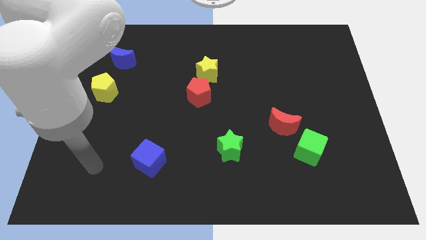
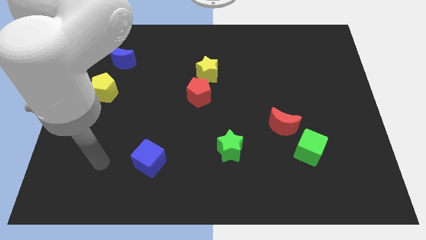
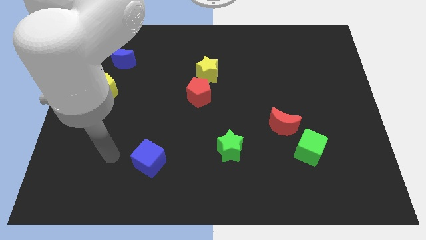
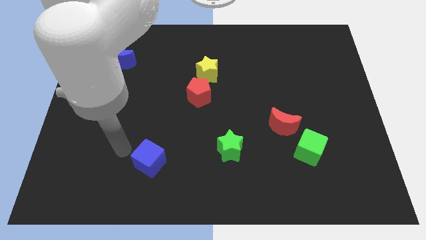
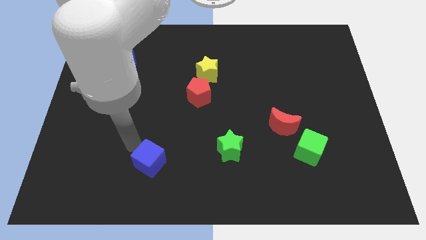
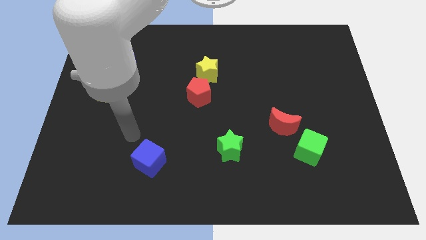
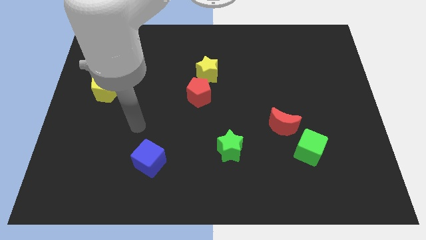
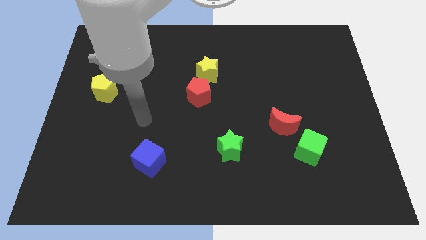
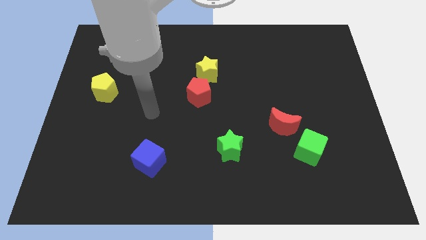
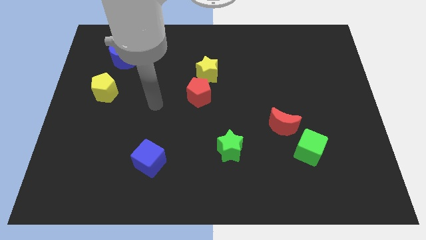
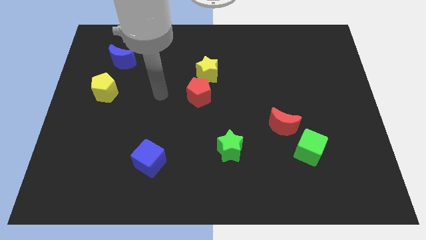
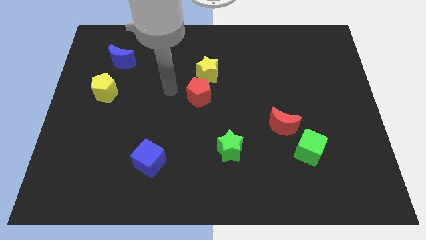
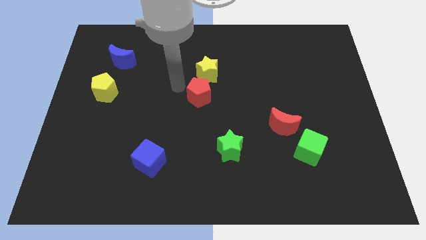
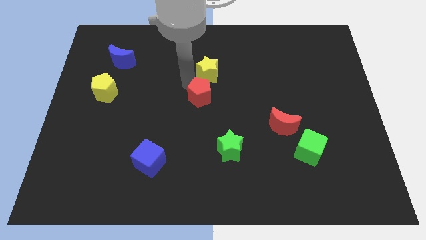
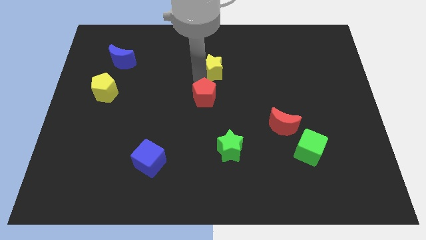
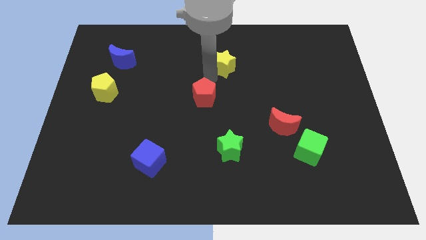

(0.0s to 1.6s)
separate the red pentagon from the yellow star

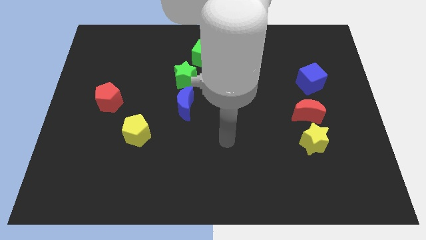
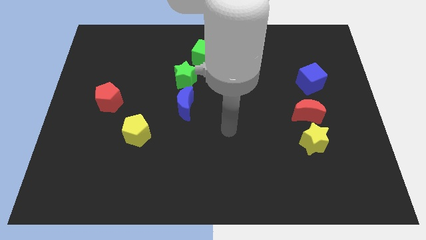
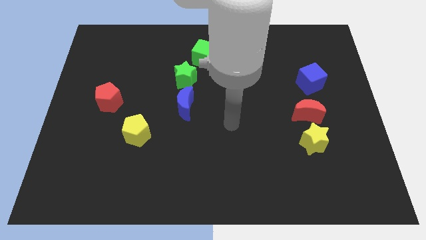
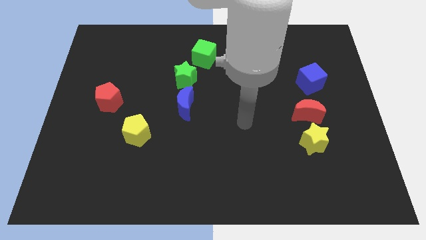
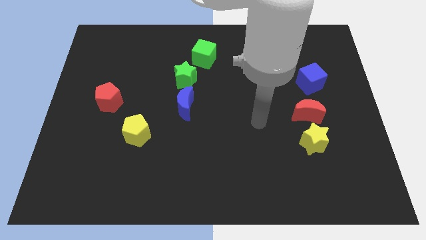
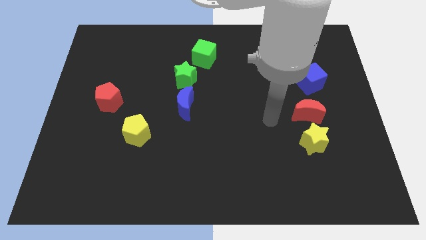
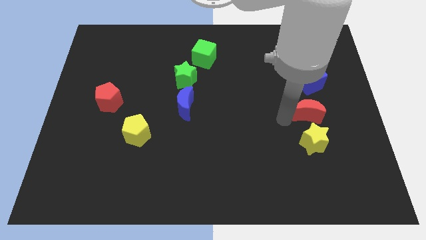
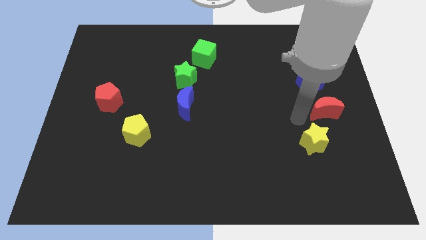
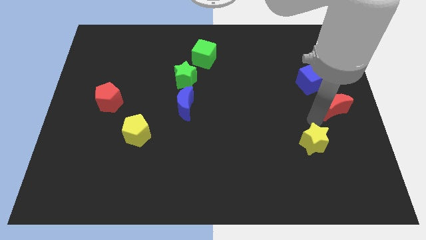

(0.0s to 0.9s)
separate the yellow star from the red moon

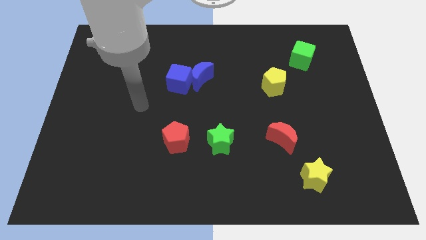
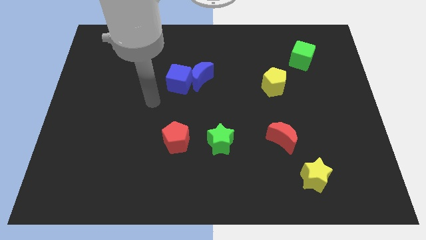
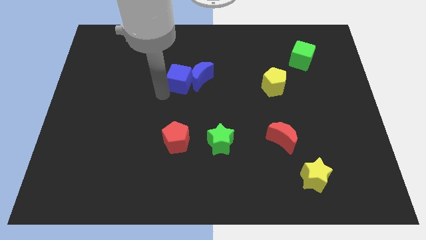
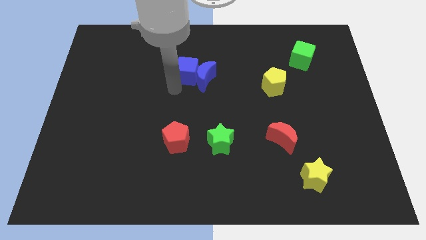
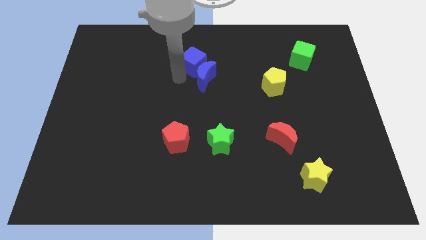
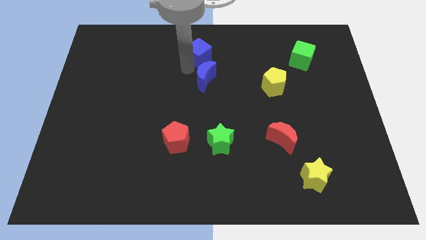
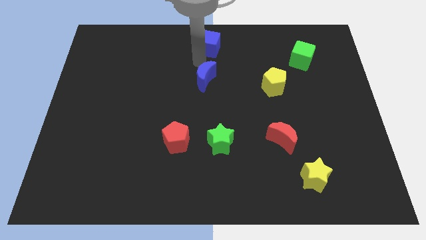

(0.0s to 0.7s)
move the blue moon away from the blue cube

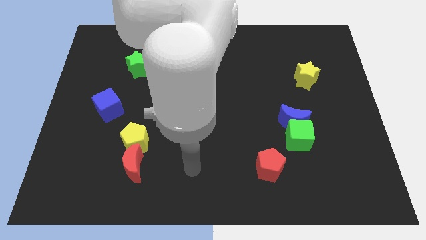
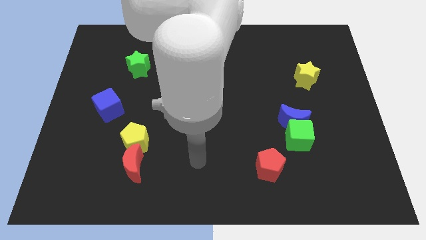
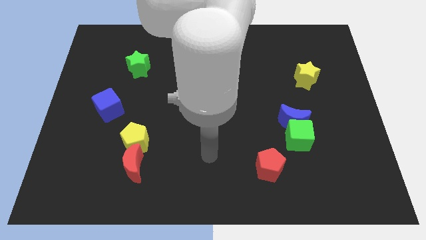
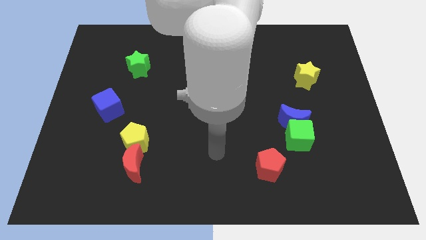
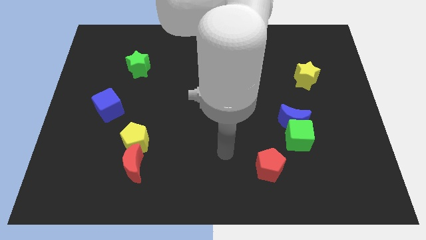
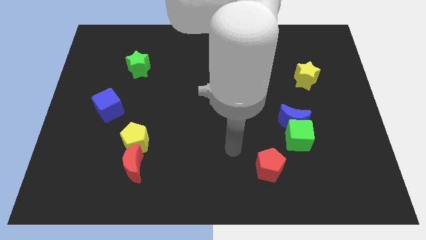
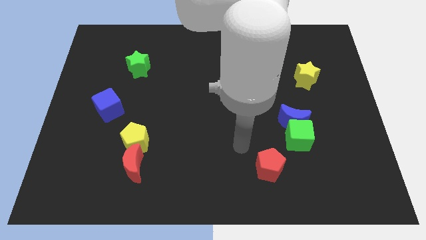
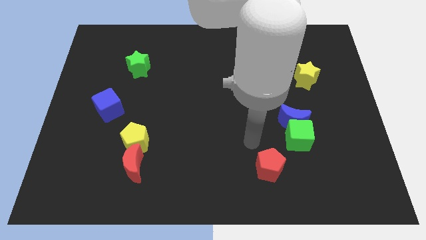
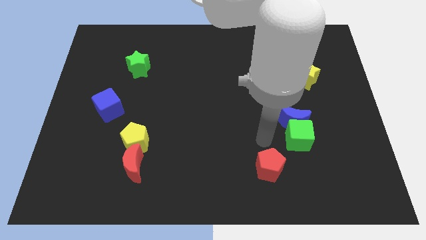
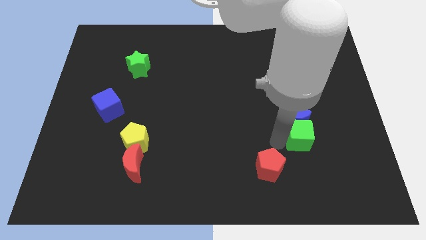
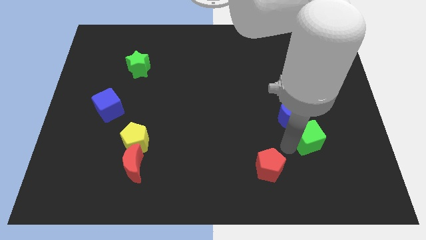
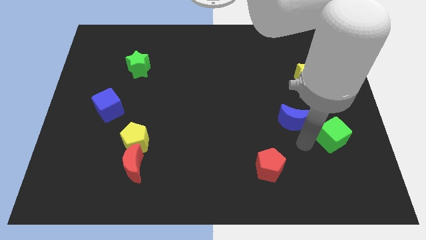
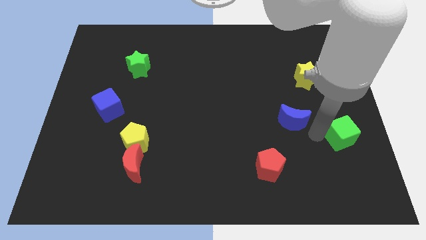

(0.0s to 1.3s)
pull the blue moon apart from the green cube

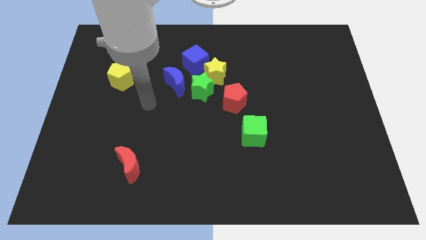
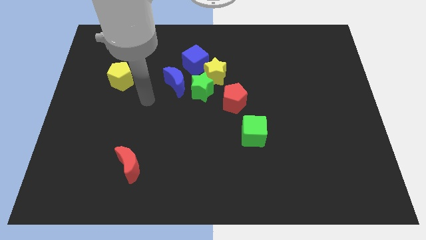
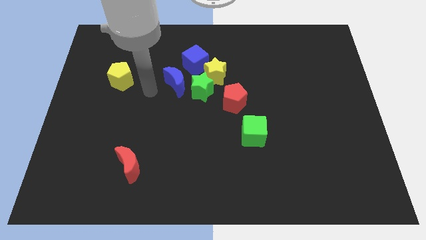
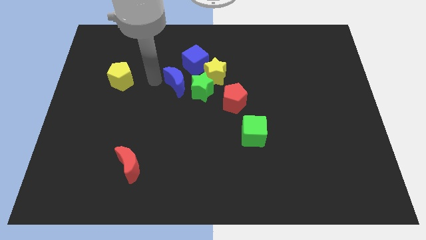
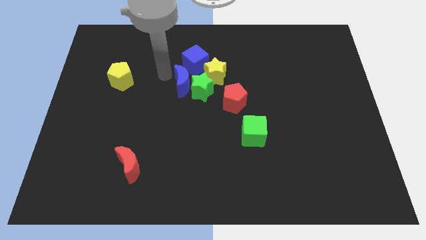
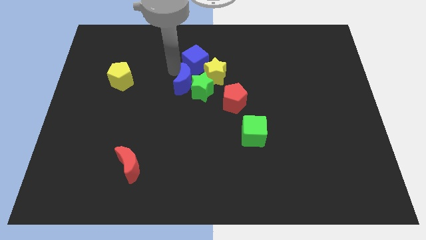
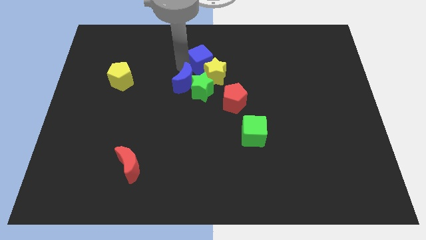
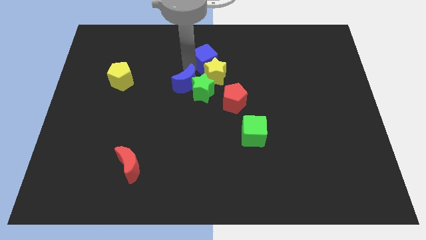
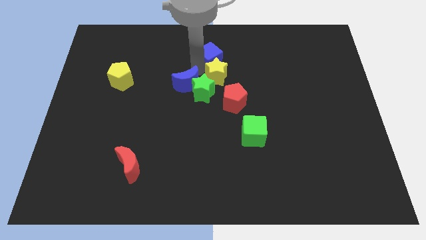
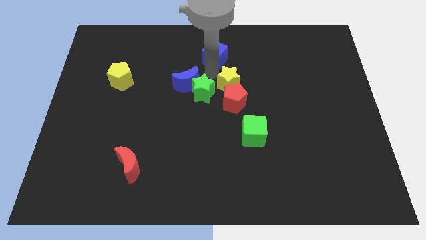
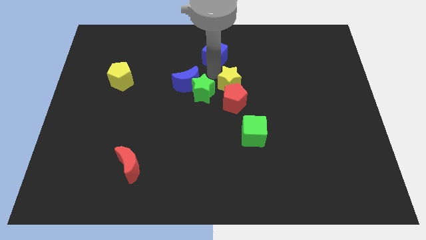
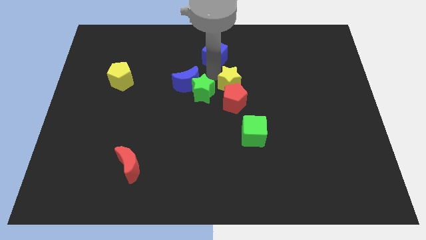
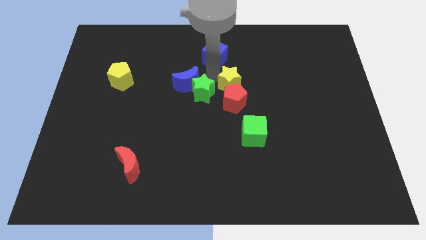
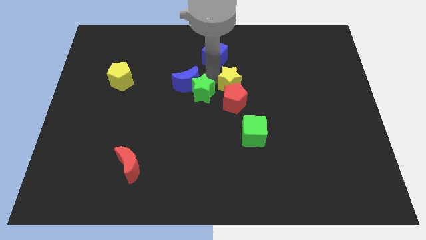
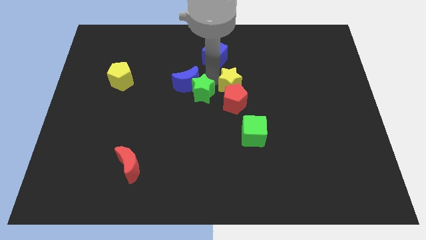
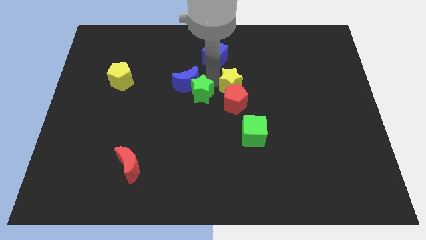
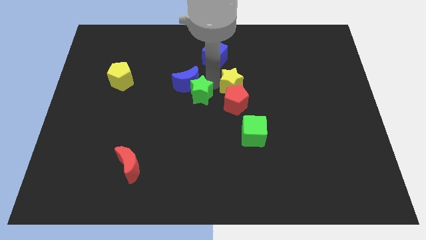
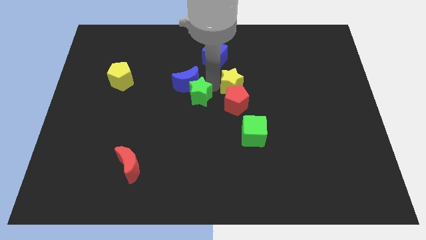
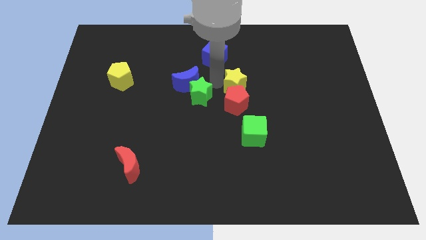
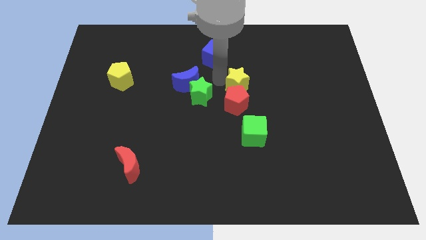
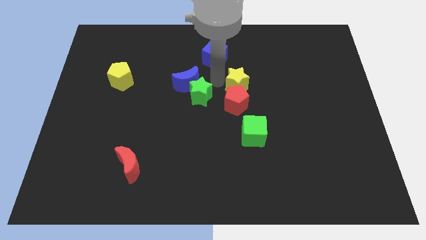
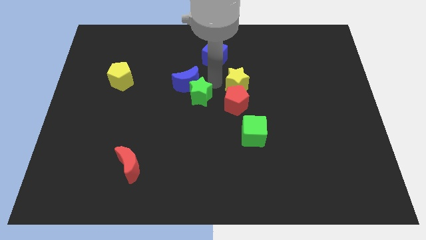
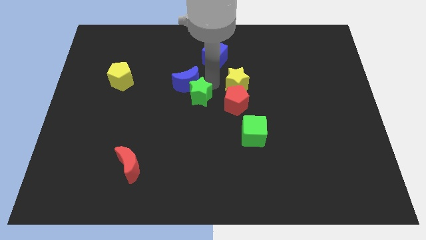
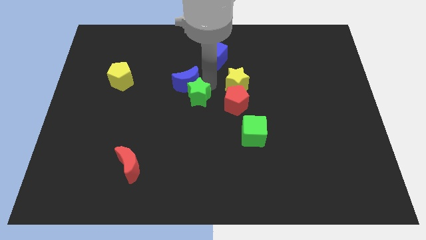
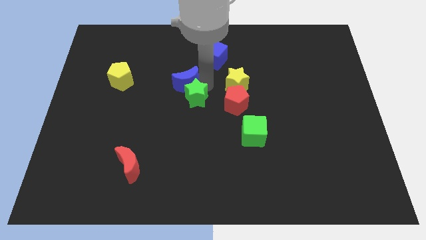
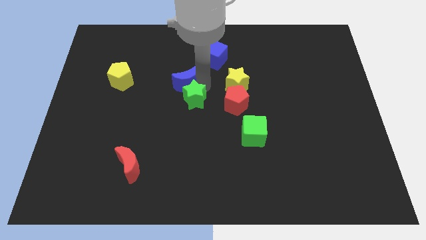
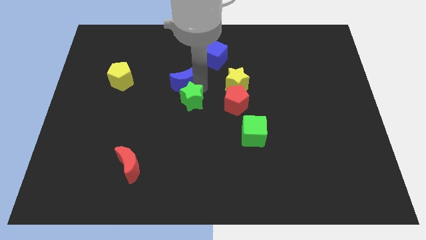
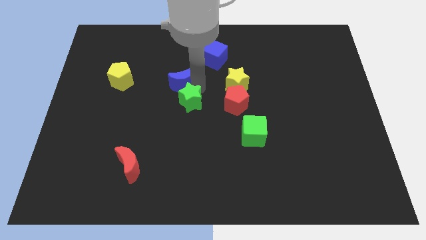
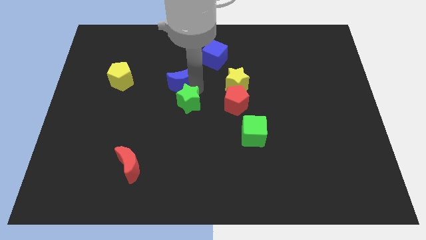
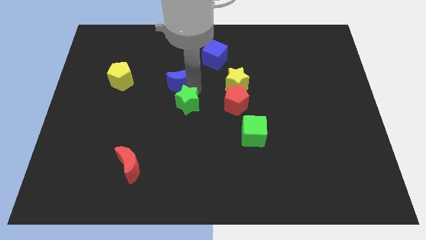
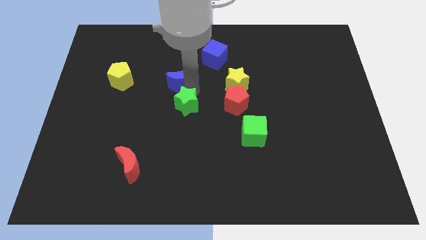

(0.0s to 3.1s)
move the green star away from the group

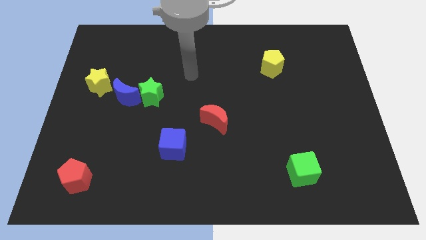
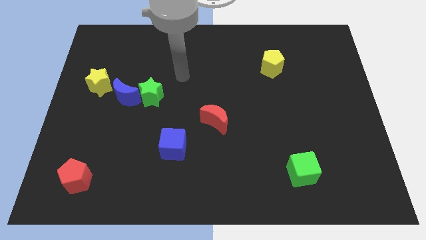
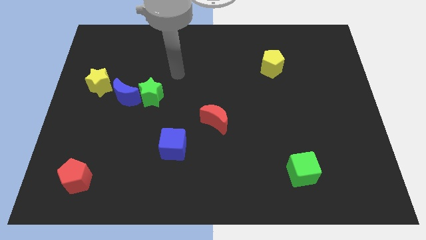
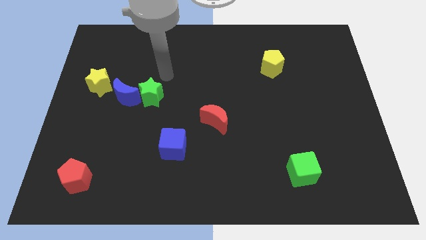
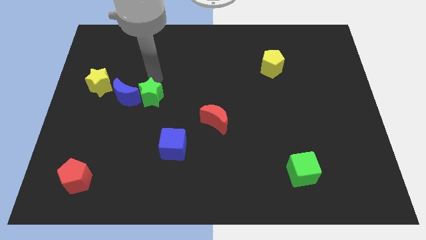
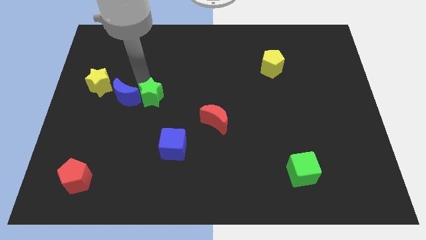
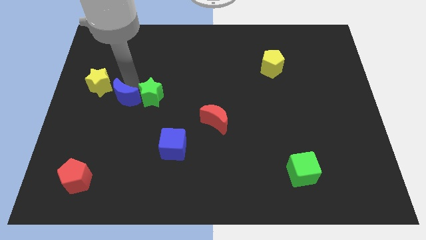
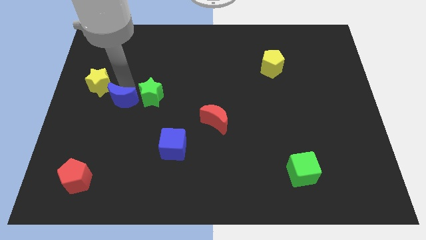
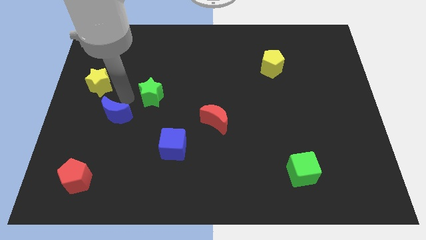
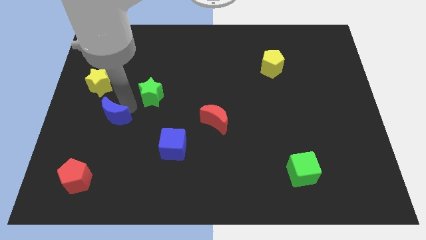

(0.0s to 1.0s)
move the green star away from the blue moon

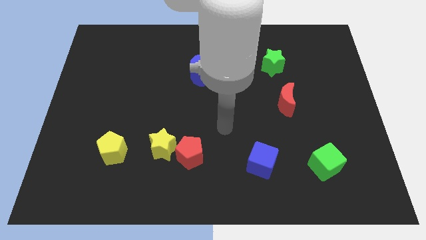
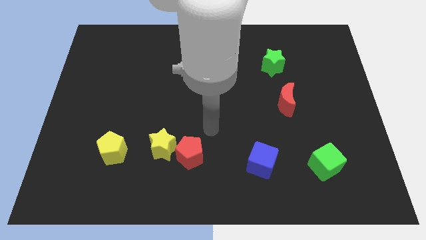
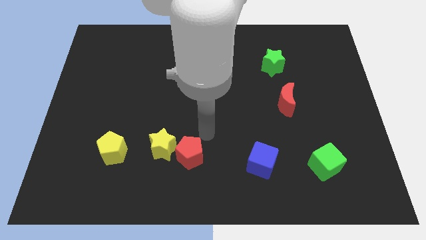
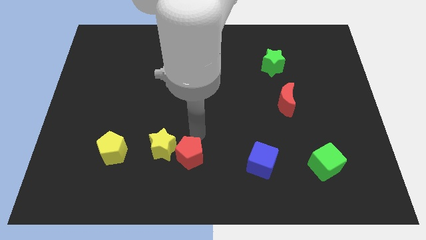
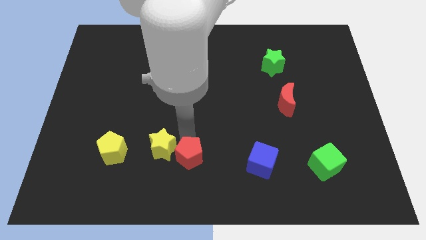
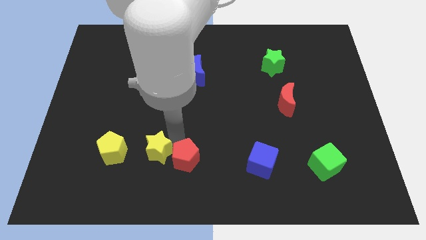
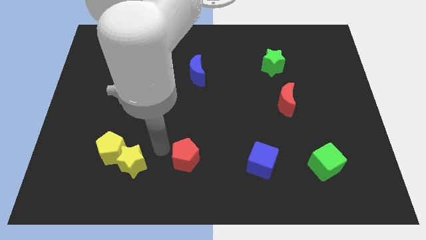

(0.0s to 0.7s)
move the red pentagon away from the yellow star

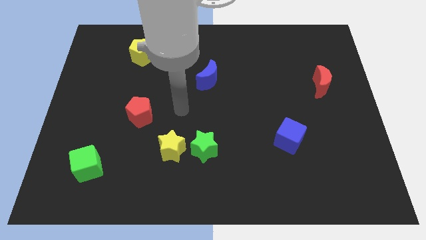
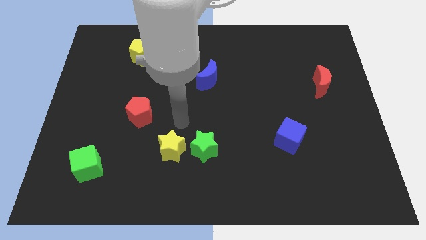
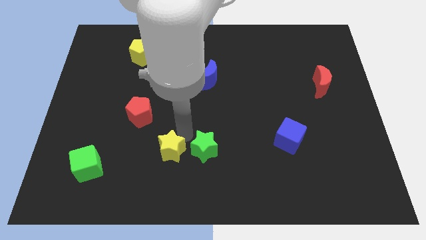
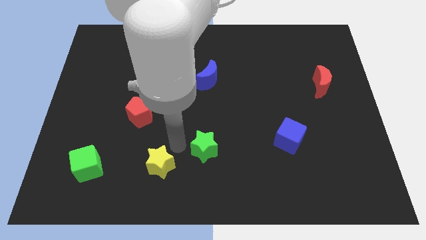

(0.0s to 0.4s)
move the green star away from the yellow star
